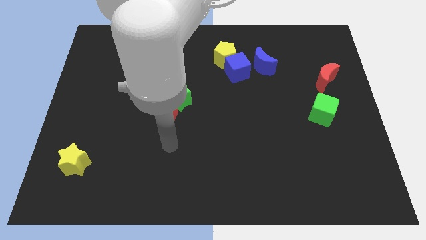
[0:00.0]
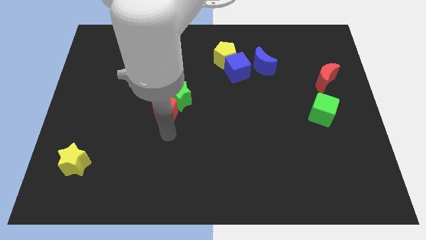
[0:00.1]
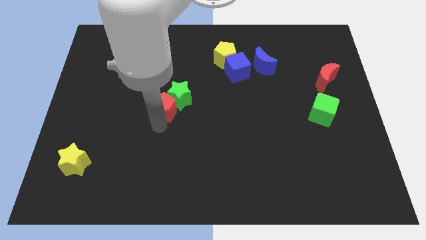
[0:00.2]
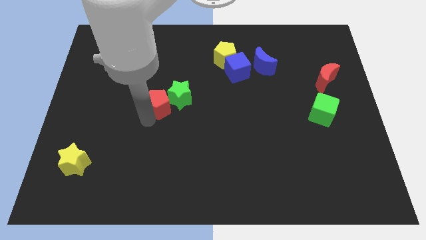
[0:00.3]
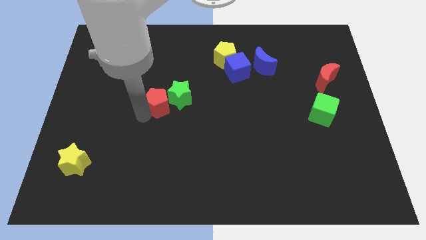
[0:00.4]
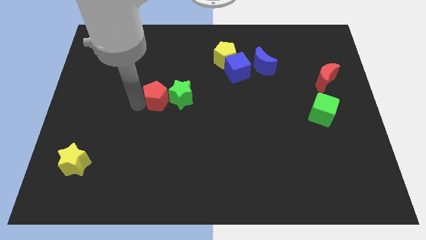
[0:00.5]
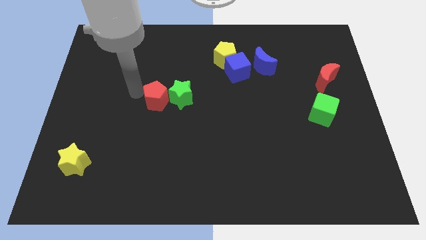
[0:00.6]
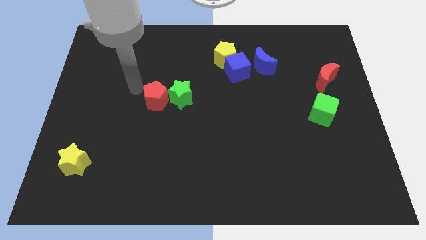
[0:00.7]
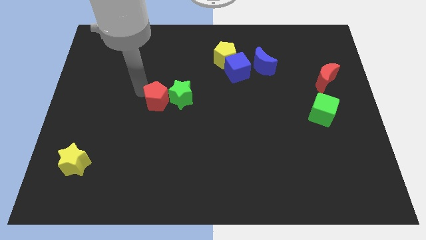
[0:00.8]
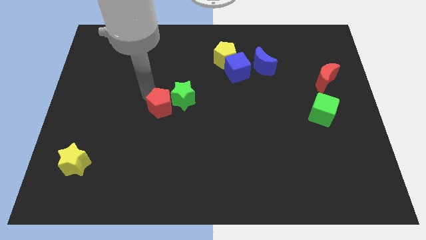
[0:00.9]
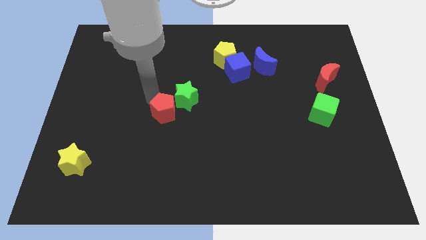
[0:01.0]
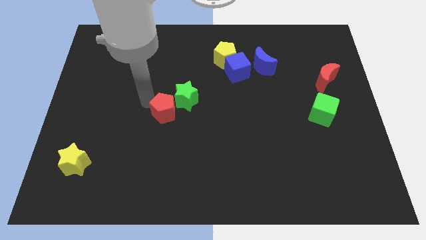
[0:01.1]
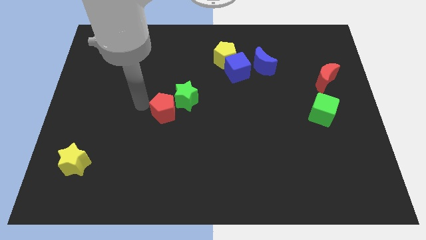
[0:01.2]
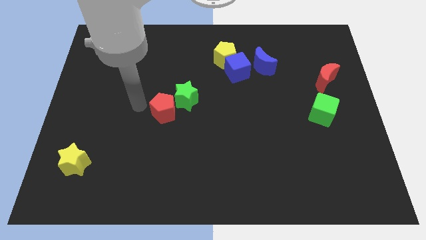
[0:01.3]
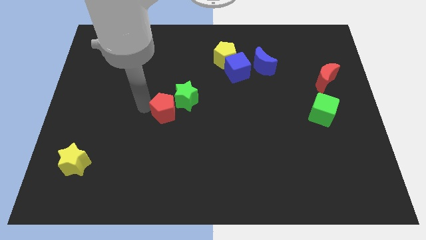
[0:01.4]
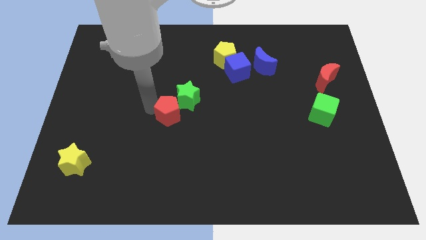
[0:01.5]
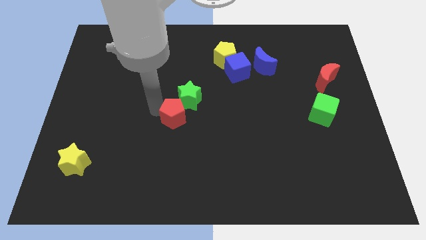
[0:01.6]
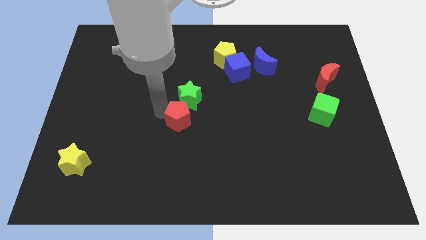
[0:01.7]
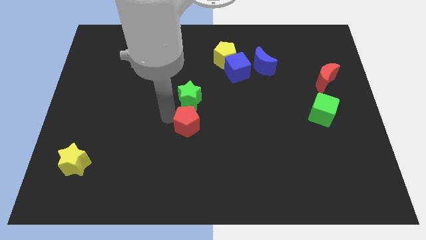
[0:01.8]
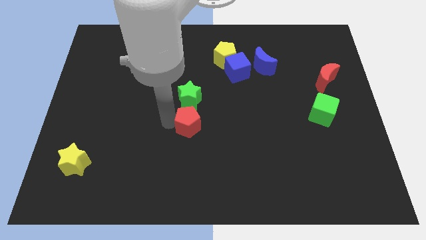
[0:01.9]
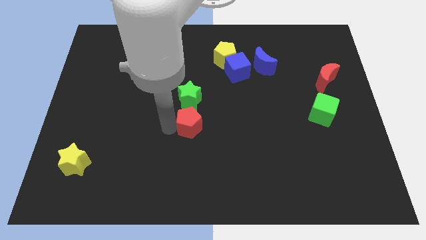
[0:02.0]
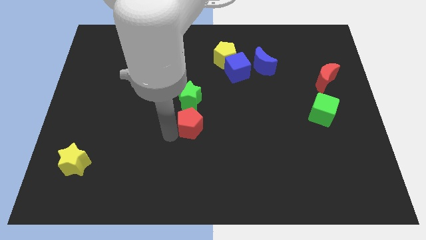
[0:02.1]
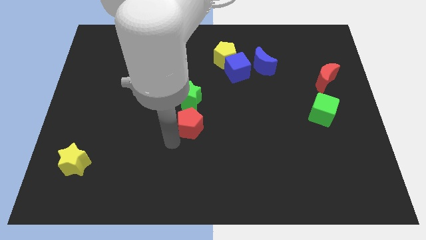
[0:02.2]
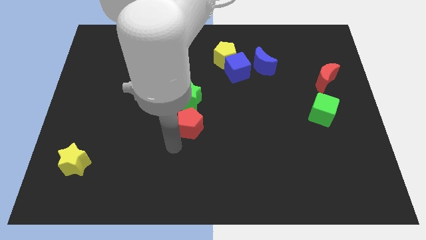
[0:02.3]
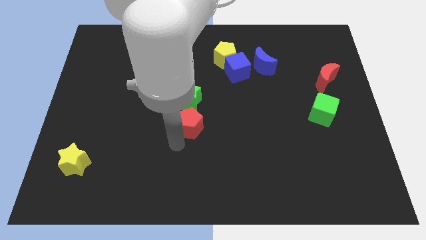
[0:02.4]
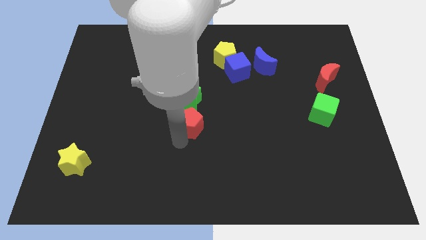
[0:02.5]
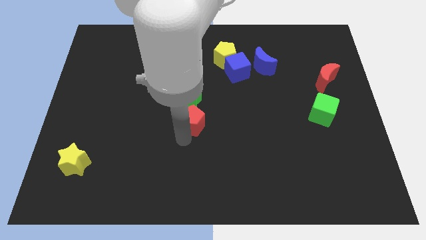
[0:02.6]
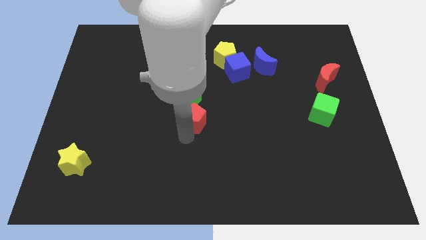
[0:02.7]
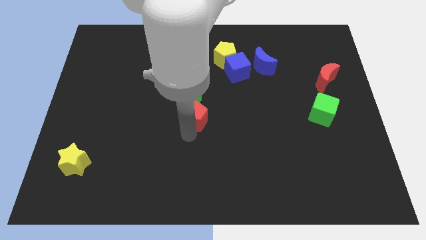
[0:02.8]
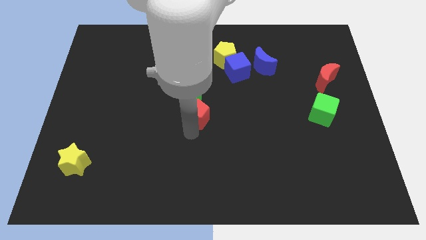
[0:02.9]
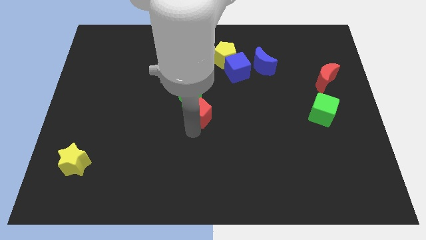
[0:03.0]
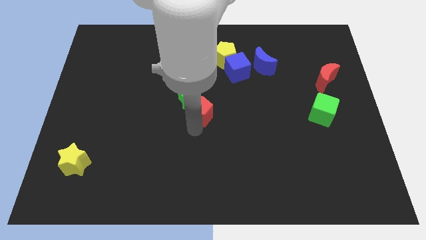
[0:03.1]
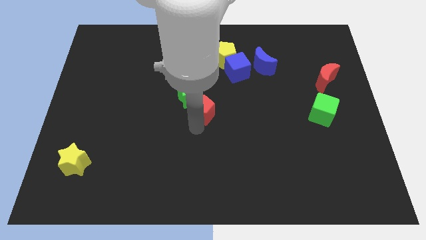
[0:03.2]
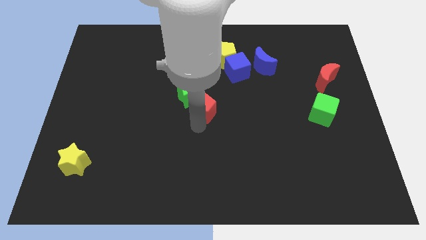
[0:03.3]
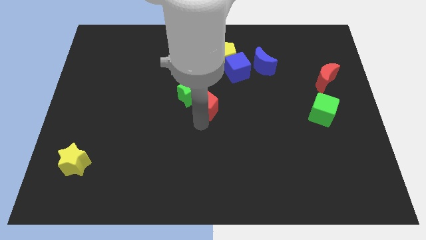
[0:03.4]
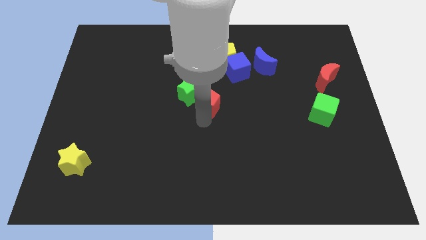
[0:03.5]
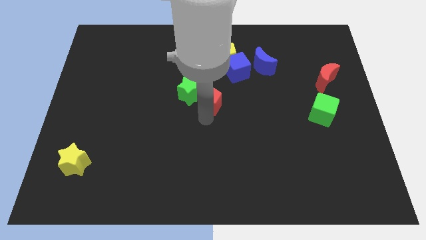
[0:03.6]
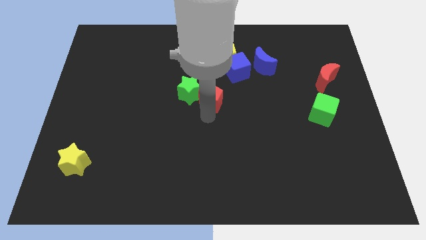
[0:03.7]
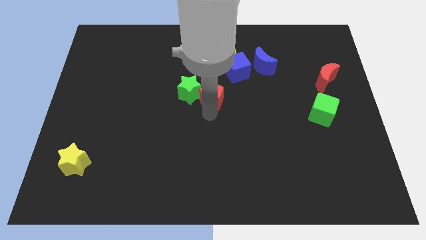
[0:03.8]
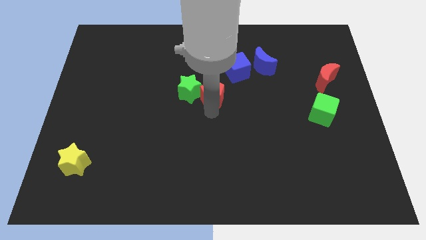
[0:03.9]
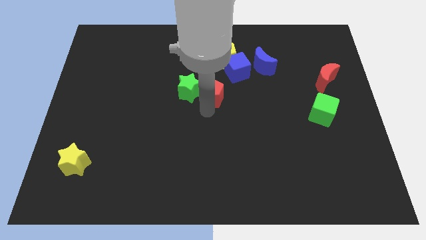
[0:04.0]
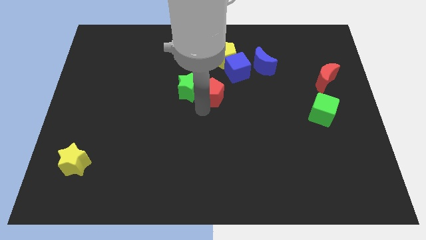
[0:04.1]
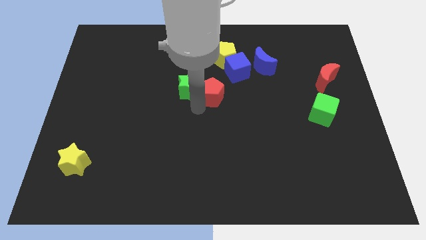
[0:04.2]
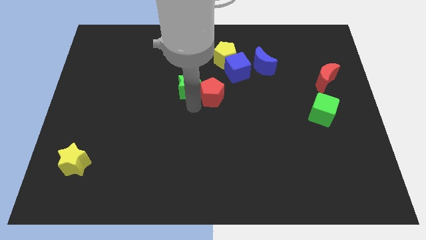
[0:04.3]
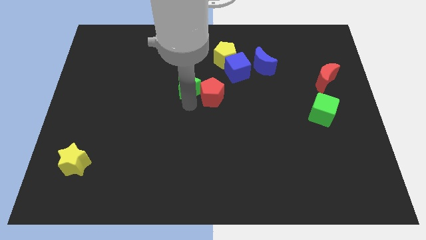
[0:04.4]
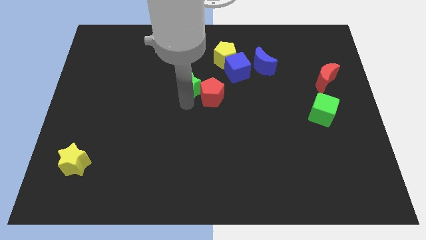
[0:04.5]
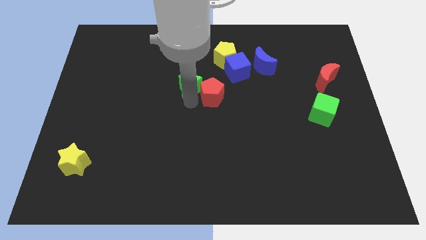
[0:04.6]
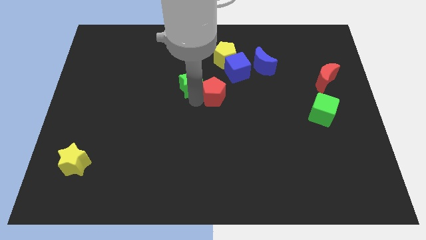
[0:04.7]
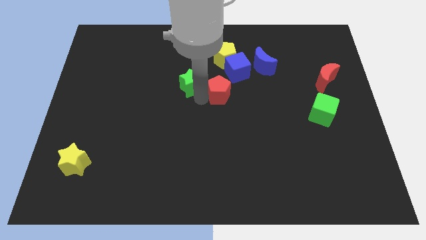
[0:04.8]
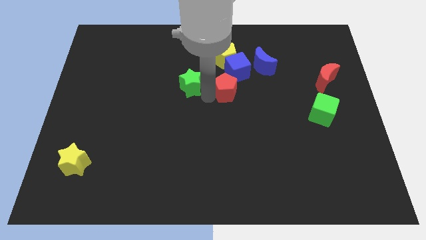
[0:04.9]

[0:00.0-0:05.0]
slide the red pentagon to the bottom left of the blue moon

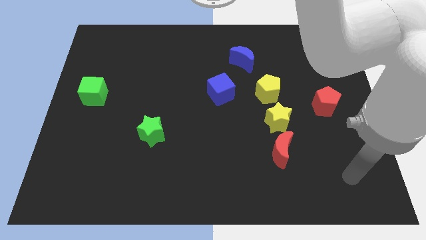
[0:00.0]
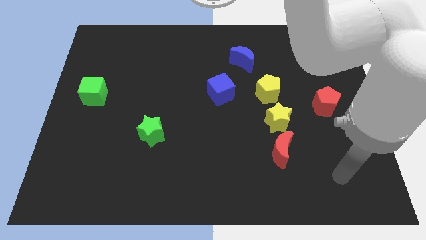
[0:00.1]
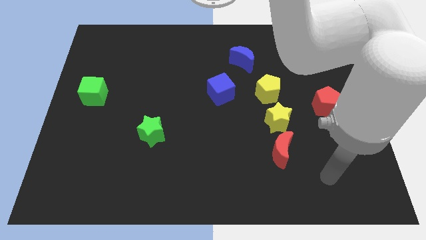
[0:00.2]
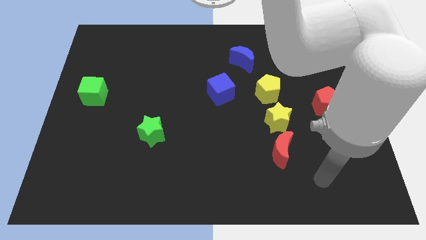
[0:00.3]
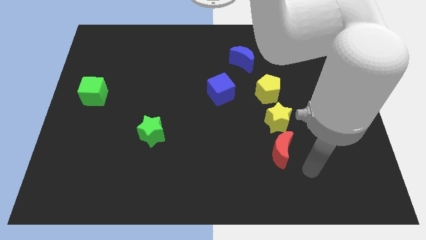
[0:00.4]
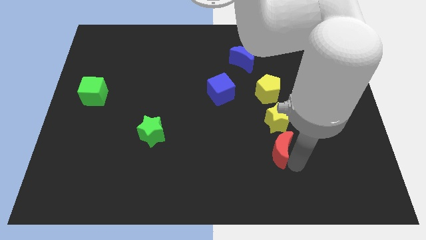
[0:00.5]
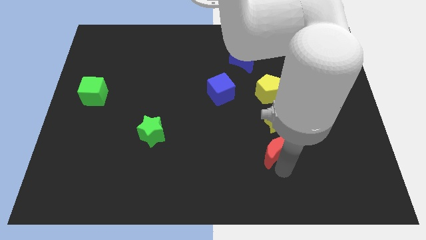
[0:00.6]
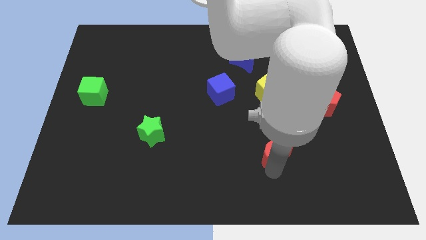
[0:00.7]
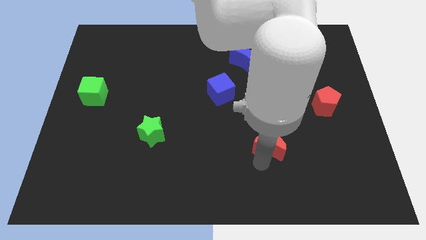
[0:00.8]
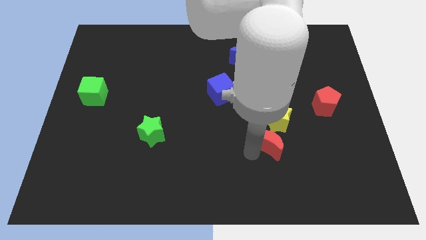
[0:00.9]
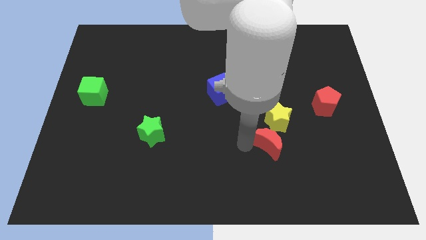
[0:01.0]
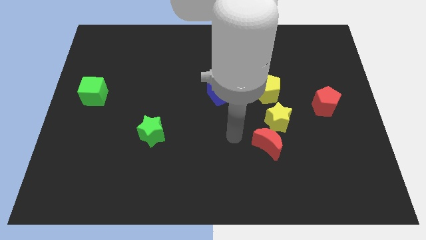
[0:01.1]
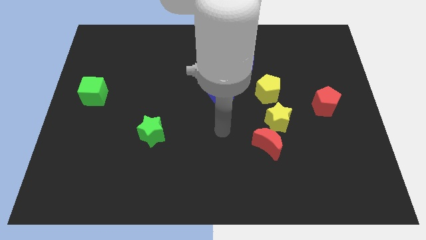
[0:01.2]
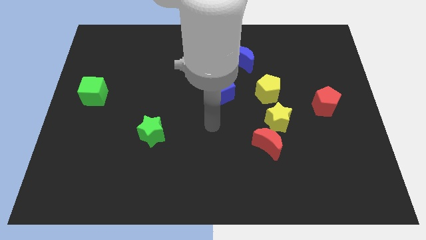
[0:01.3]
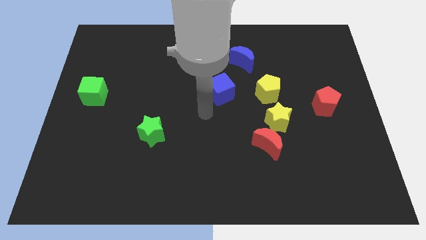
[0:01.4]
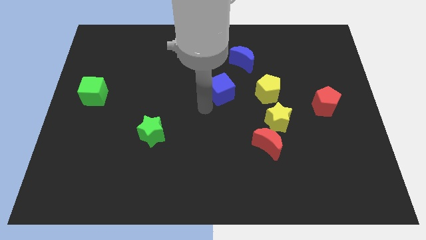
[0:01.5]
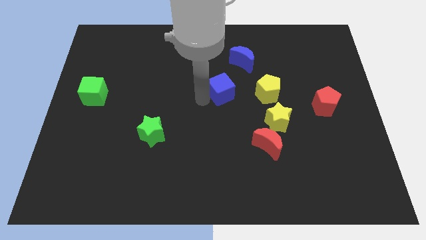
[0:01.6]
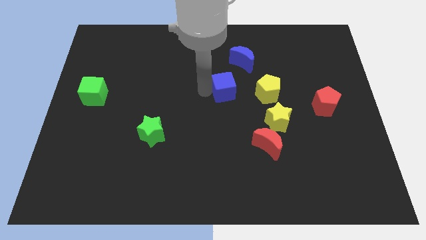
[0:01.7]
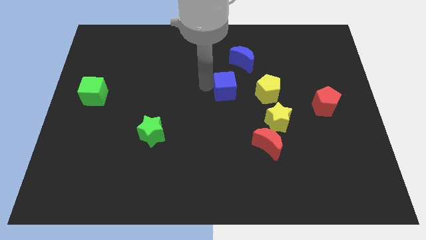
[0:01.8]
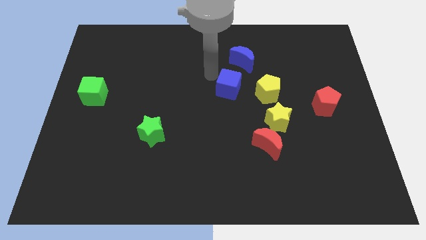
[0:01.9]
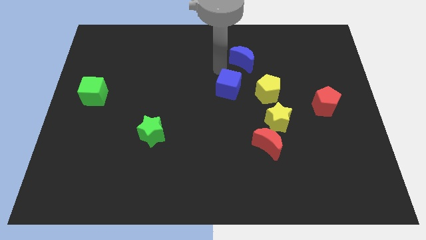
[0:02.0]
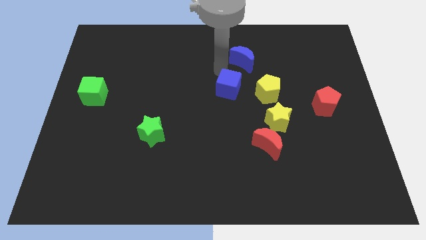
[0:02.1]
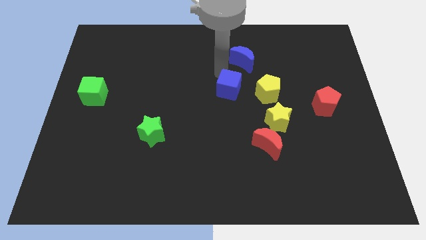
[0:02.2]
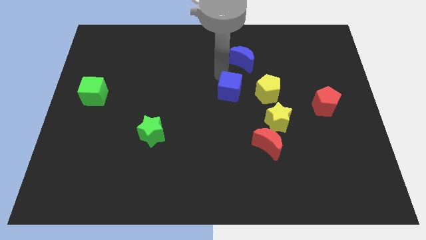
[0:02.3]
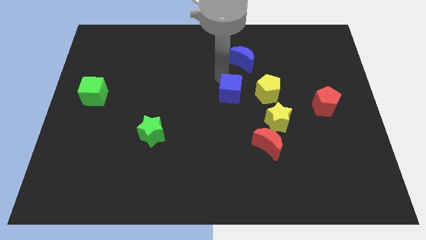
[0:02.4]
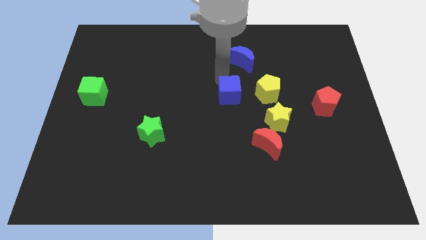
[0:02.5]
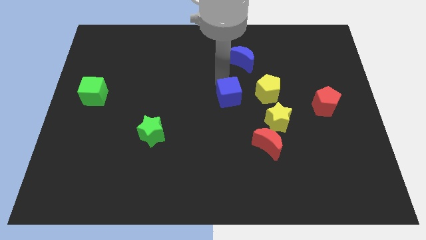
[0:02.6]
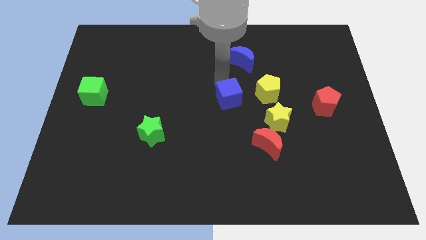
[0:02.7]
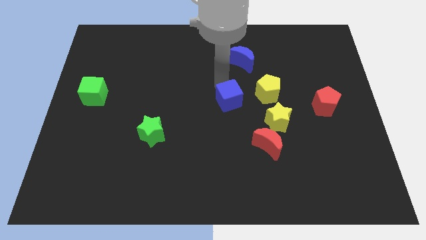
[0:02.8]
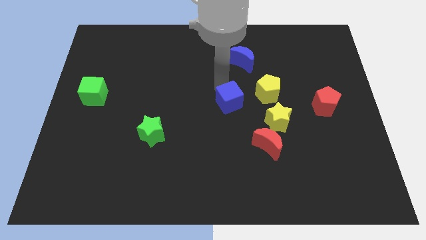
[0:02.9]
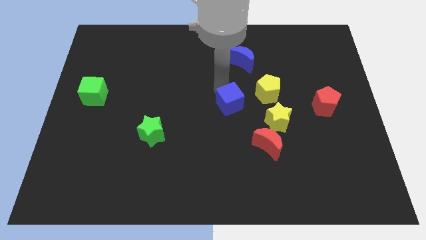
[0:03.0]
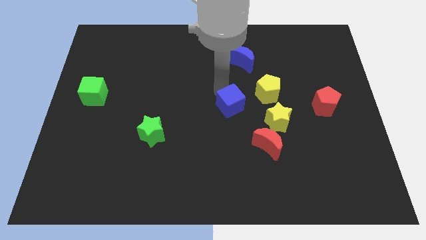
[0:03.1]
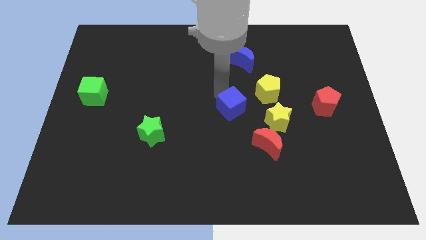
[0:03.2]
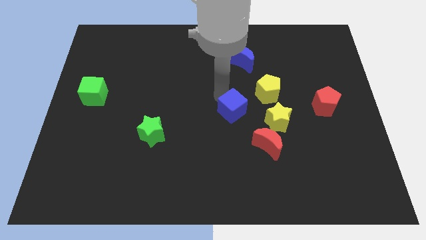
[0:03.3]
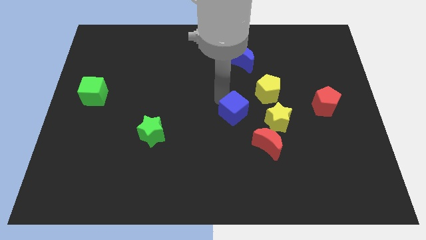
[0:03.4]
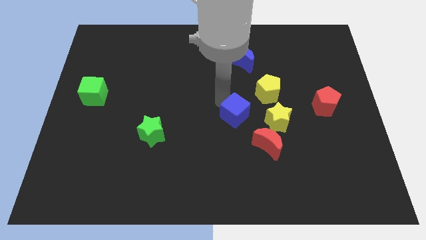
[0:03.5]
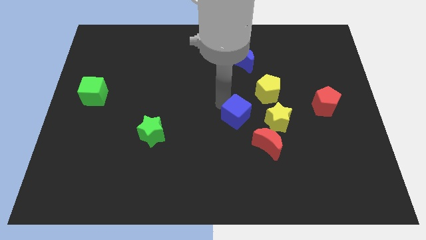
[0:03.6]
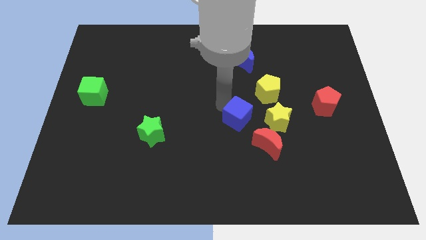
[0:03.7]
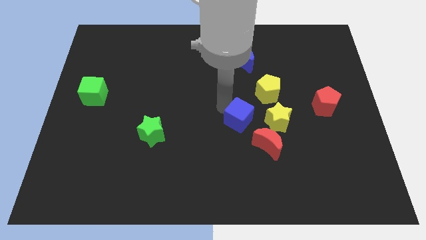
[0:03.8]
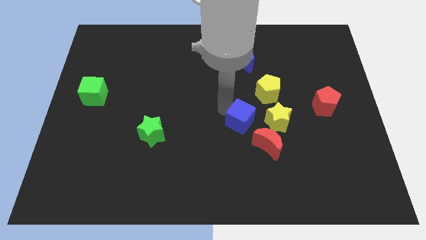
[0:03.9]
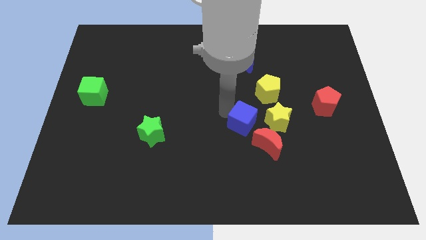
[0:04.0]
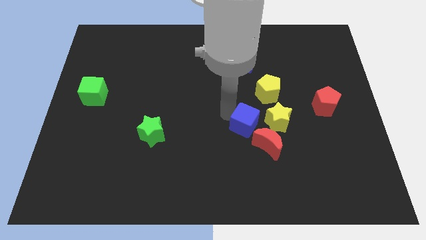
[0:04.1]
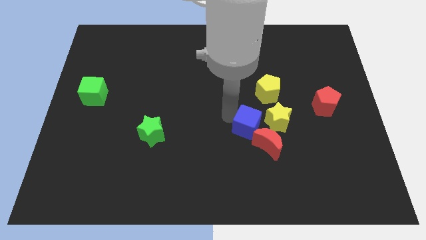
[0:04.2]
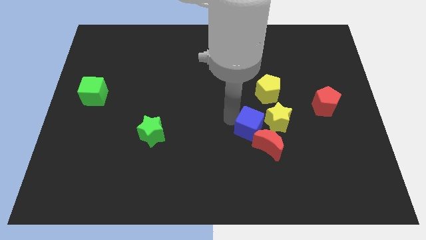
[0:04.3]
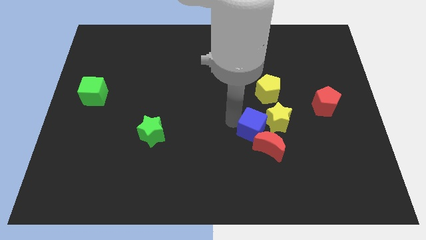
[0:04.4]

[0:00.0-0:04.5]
slide the blue cube below the yellow pentagon
